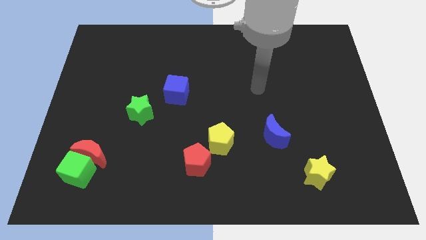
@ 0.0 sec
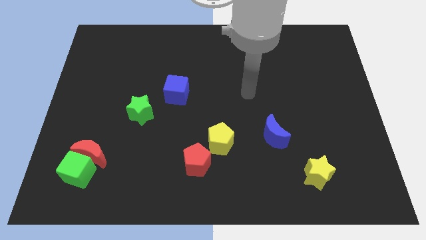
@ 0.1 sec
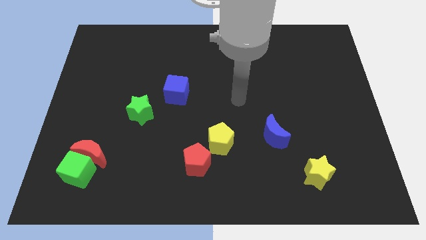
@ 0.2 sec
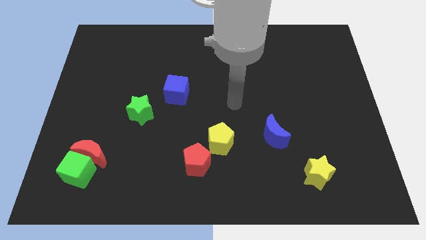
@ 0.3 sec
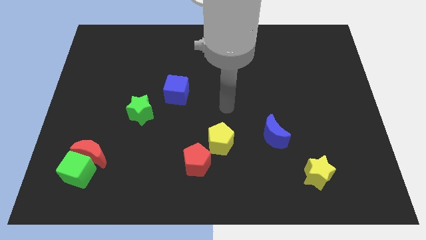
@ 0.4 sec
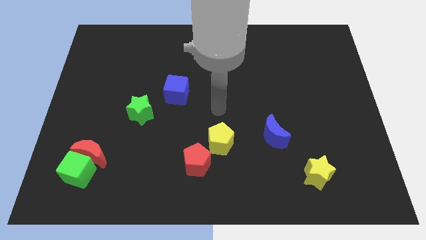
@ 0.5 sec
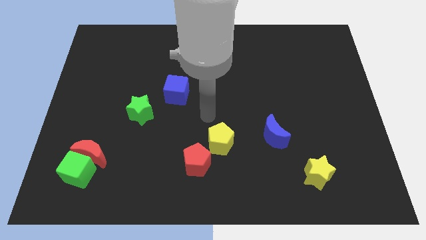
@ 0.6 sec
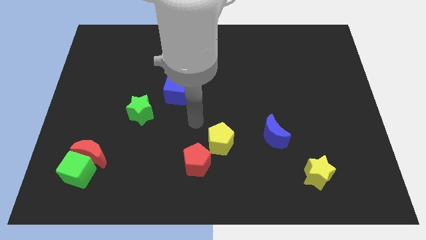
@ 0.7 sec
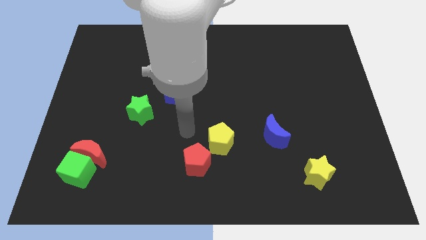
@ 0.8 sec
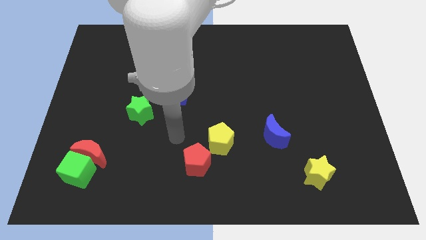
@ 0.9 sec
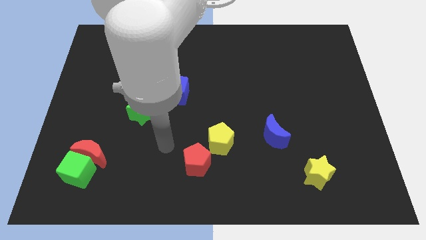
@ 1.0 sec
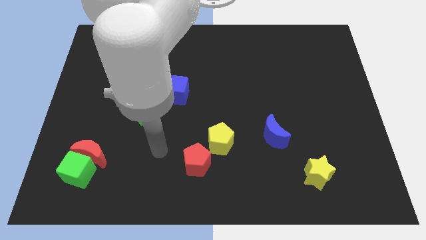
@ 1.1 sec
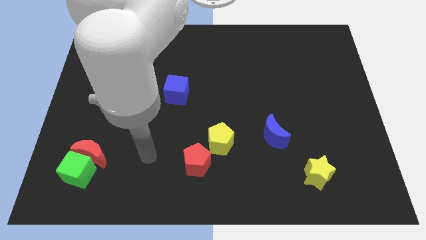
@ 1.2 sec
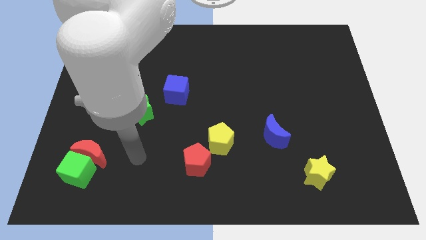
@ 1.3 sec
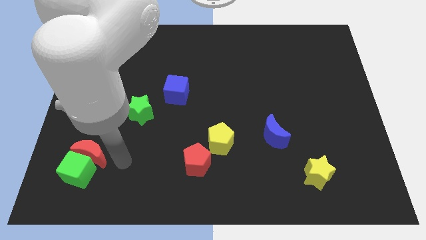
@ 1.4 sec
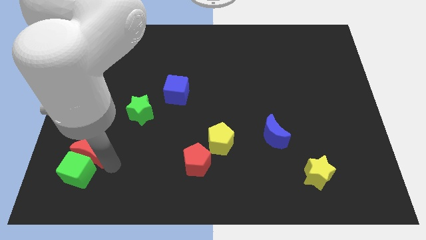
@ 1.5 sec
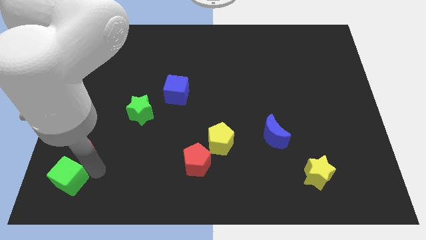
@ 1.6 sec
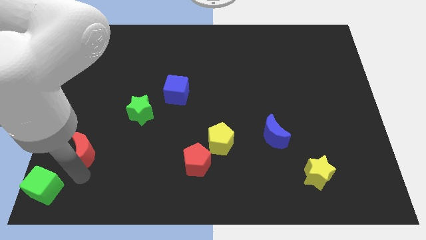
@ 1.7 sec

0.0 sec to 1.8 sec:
move the red moon away from the green cube

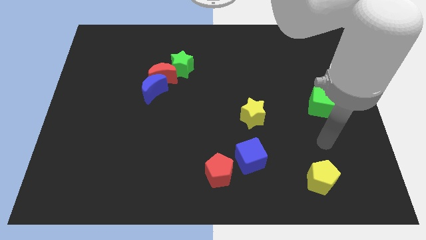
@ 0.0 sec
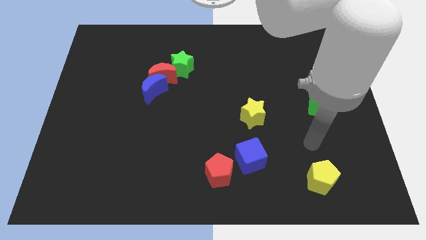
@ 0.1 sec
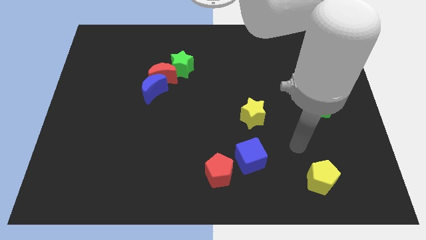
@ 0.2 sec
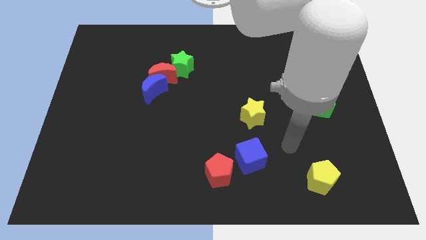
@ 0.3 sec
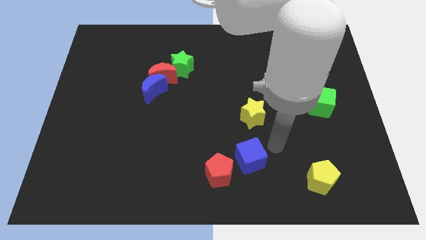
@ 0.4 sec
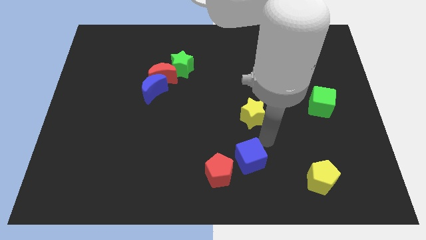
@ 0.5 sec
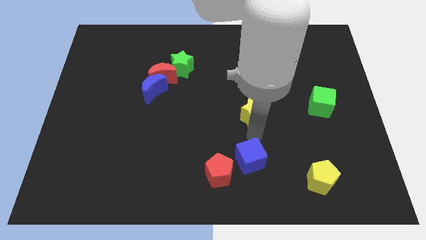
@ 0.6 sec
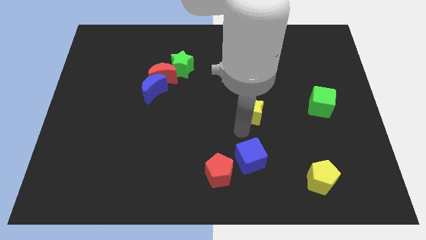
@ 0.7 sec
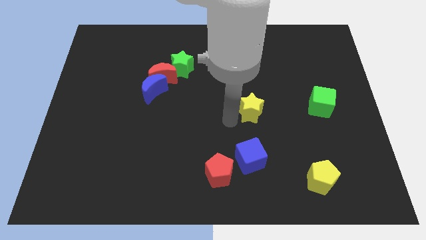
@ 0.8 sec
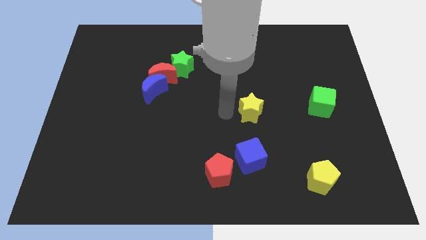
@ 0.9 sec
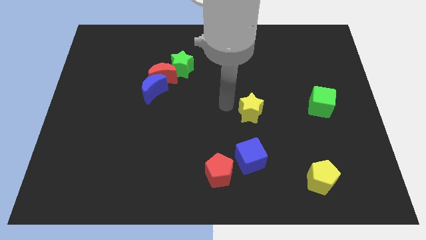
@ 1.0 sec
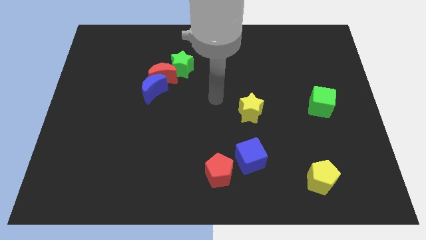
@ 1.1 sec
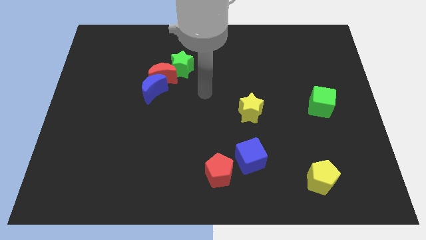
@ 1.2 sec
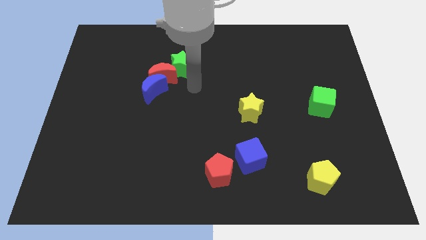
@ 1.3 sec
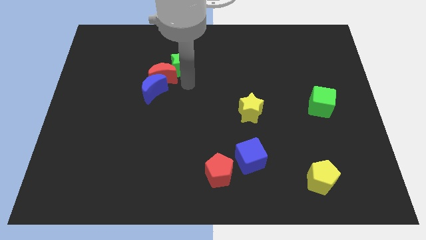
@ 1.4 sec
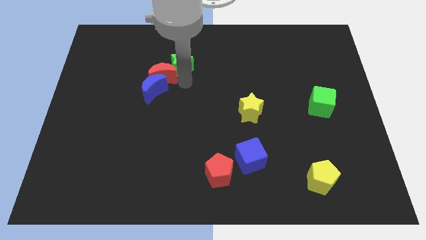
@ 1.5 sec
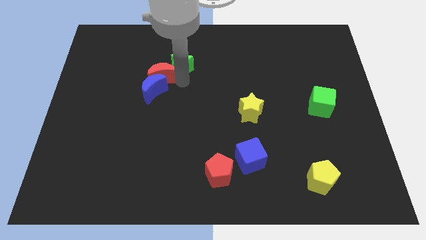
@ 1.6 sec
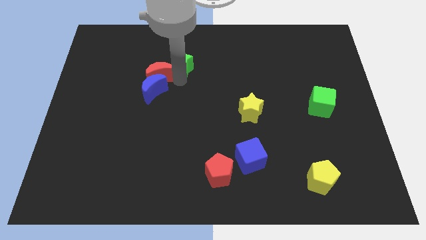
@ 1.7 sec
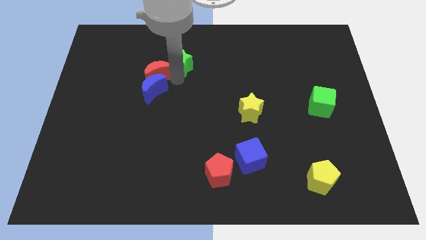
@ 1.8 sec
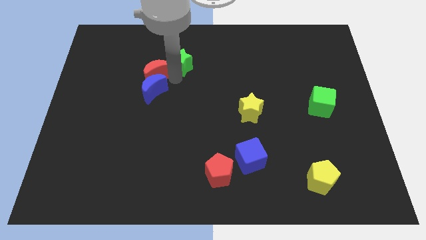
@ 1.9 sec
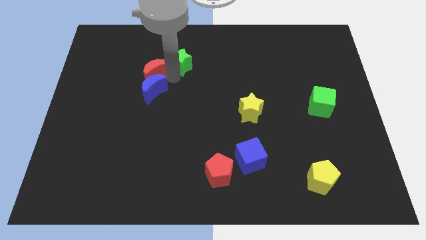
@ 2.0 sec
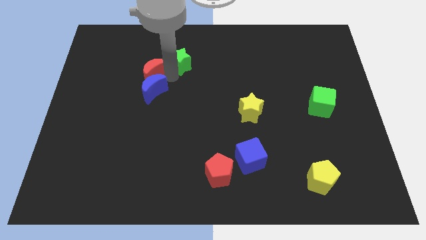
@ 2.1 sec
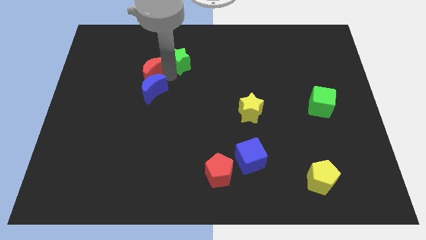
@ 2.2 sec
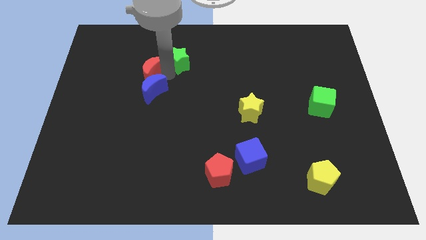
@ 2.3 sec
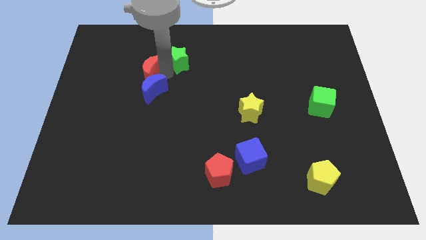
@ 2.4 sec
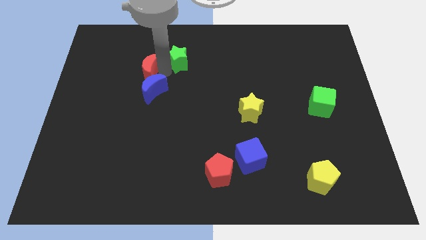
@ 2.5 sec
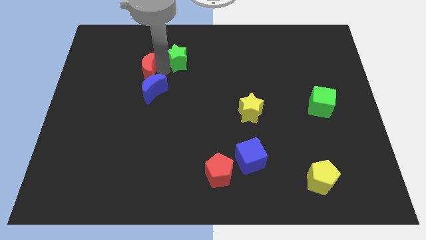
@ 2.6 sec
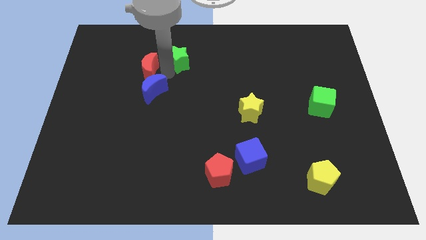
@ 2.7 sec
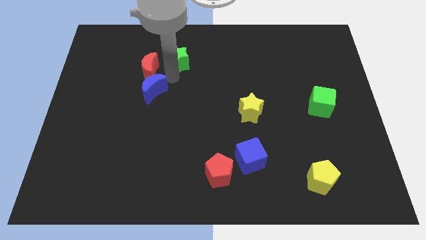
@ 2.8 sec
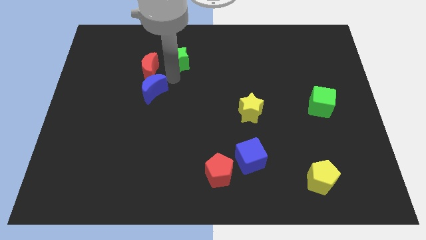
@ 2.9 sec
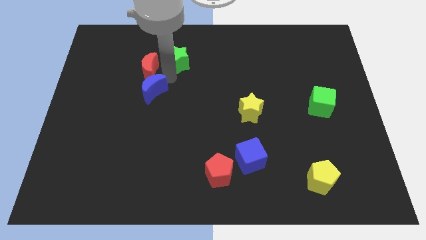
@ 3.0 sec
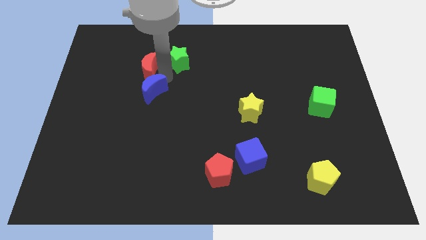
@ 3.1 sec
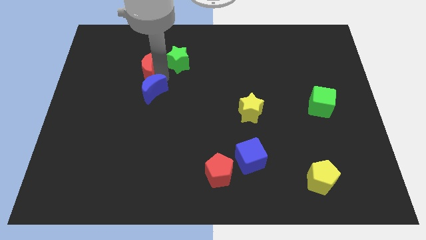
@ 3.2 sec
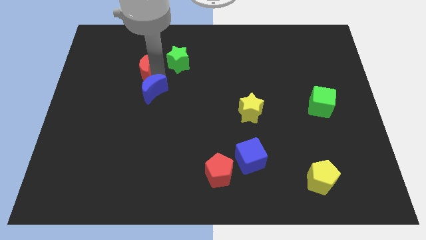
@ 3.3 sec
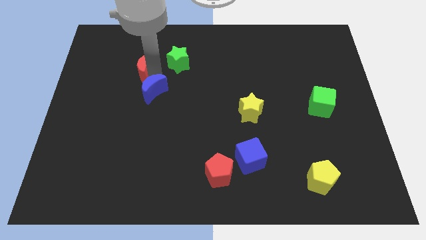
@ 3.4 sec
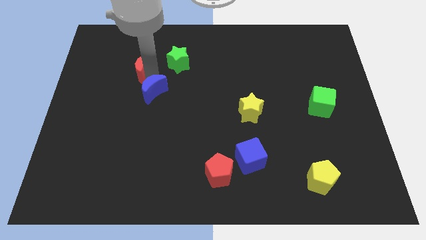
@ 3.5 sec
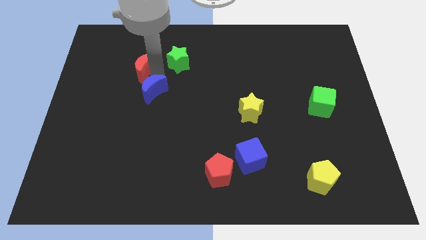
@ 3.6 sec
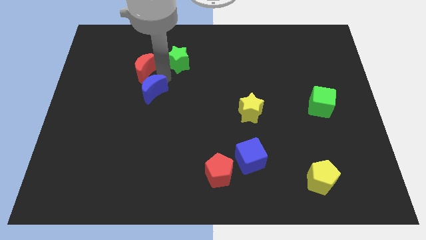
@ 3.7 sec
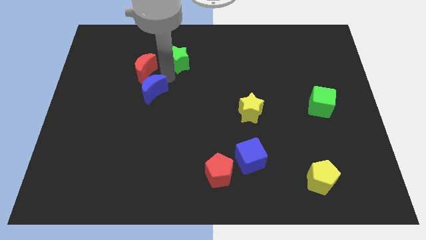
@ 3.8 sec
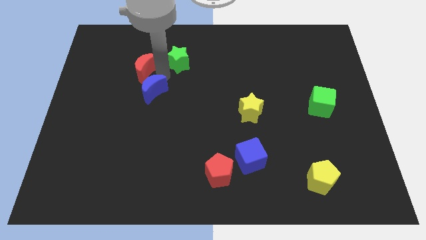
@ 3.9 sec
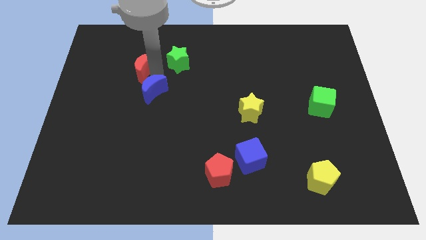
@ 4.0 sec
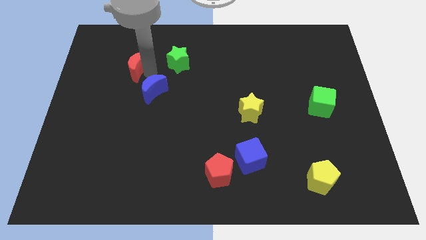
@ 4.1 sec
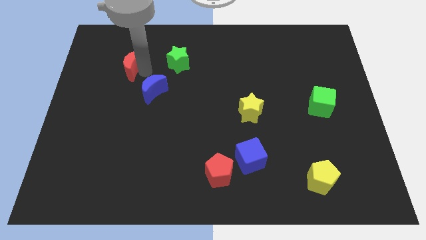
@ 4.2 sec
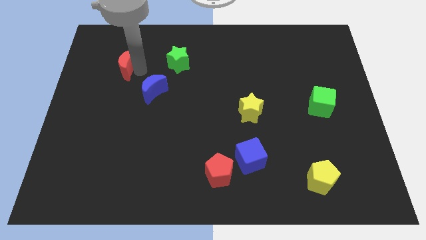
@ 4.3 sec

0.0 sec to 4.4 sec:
move the red moon away from the blue moon and green star

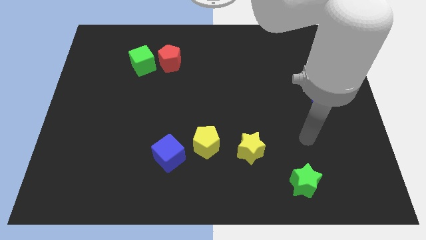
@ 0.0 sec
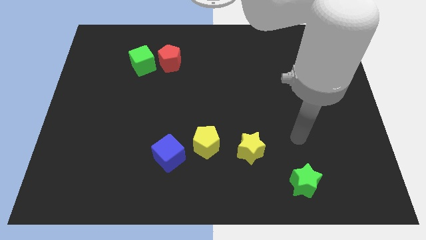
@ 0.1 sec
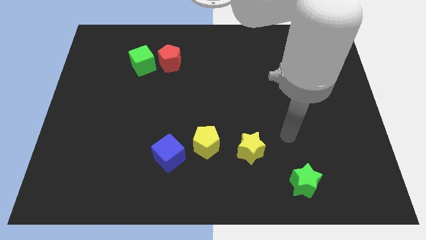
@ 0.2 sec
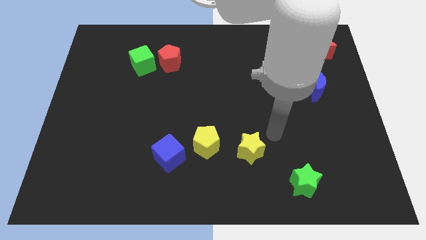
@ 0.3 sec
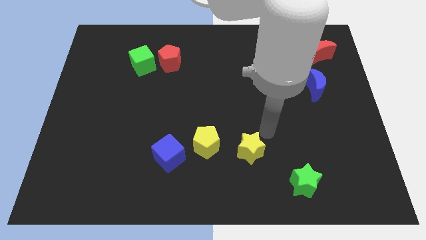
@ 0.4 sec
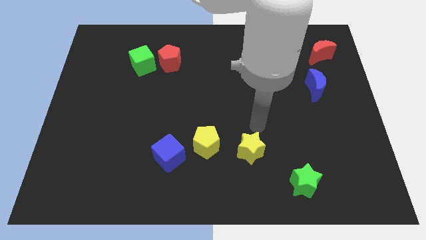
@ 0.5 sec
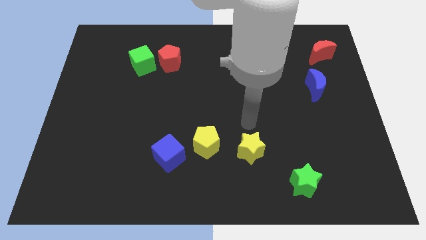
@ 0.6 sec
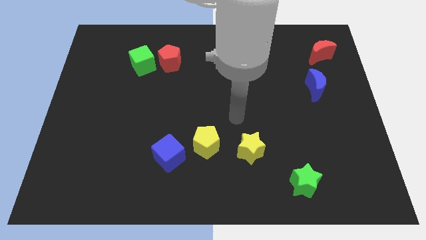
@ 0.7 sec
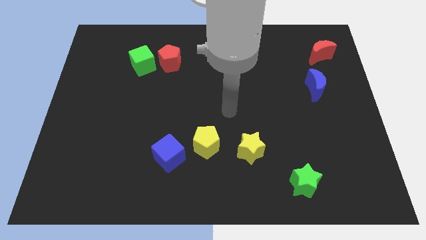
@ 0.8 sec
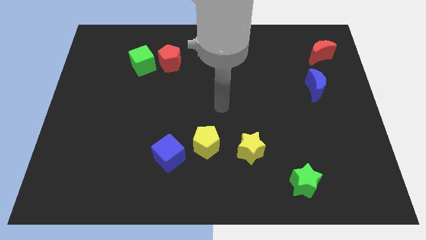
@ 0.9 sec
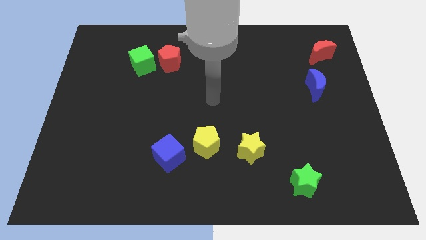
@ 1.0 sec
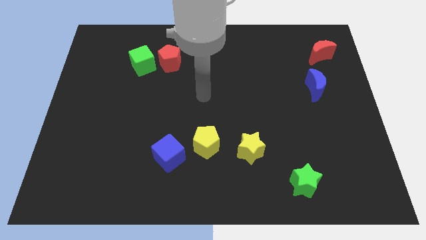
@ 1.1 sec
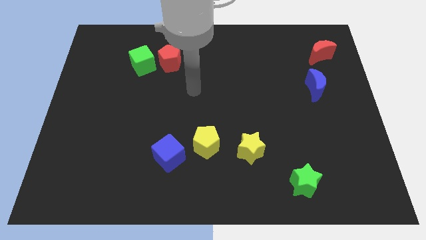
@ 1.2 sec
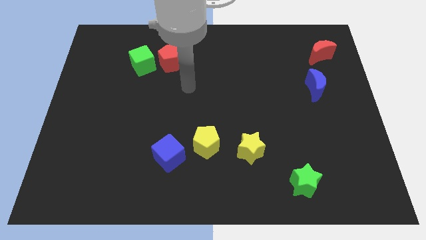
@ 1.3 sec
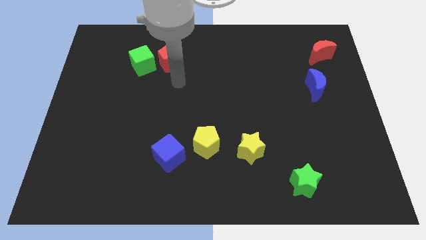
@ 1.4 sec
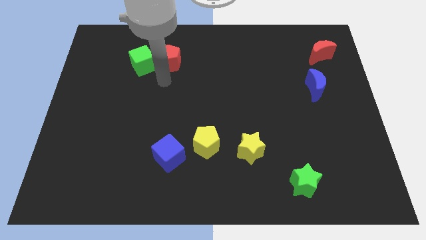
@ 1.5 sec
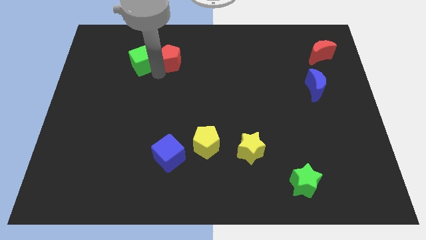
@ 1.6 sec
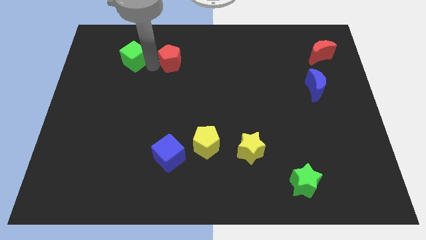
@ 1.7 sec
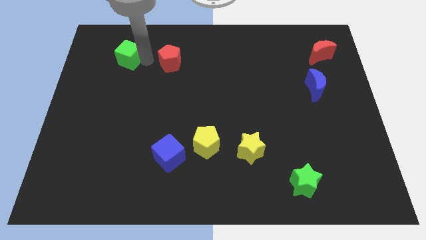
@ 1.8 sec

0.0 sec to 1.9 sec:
pull the red pentagon apart from the green cube

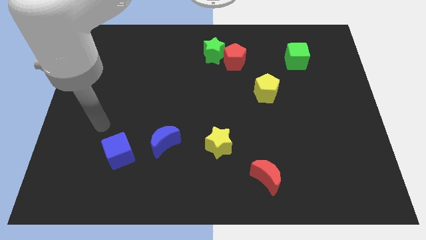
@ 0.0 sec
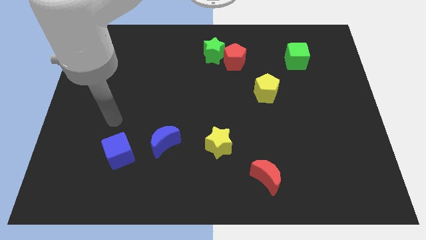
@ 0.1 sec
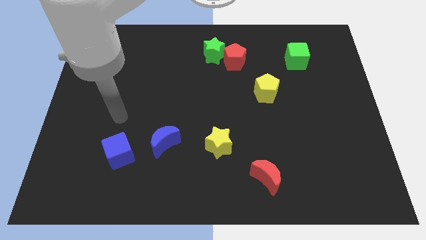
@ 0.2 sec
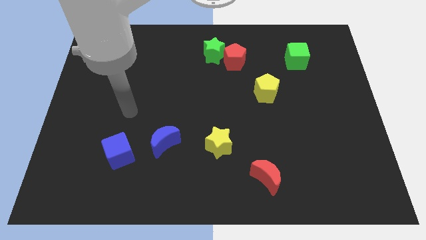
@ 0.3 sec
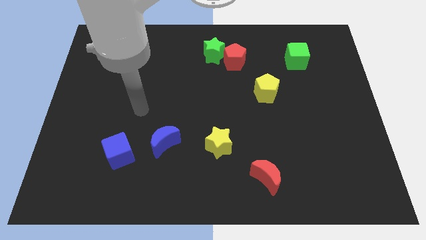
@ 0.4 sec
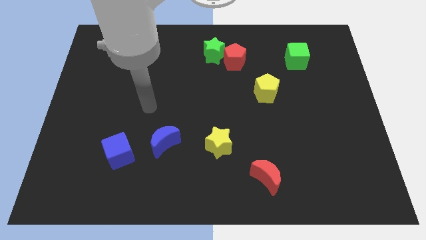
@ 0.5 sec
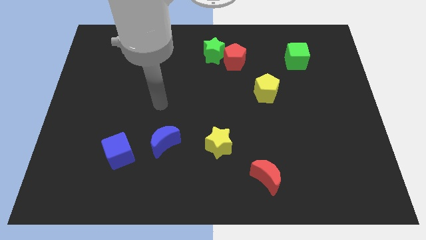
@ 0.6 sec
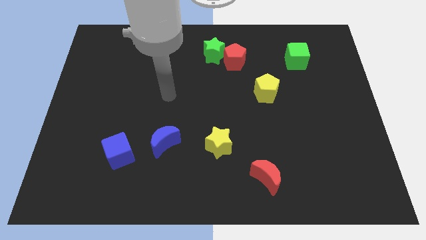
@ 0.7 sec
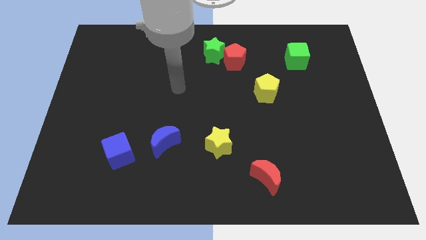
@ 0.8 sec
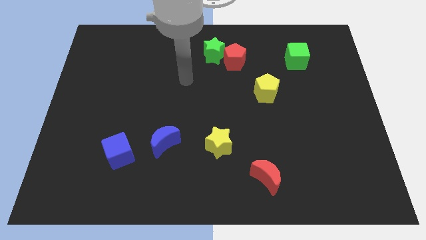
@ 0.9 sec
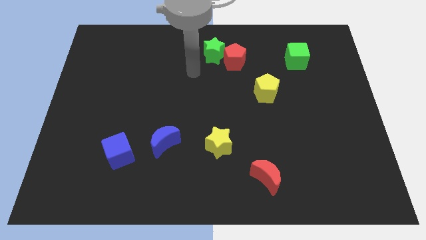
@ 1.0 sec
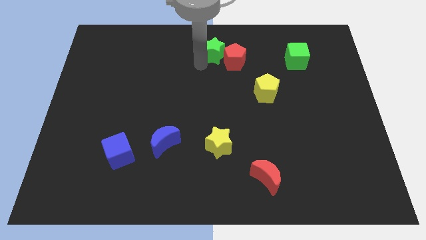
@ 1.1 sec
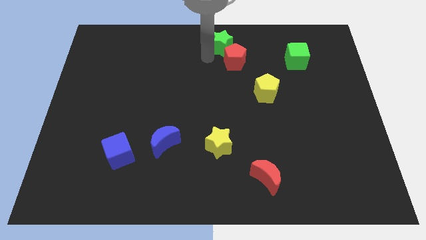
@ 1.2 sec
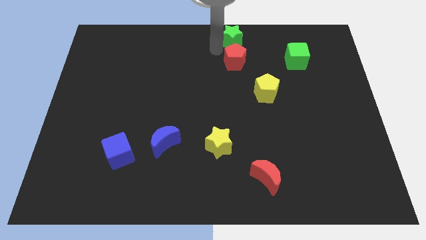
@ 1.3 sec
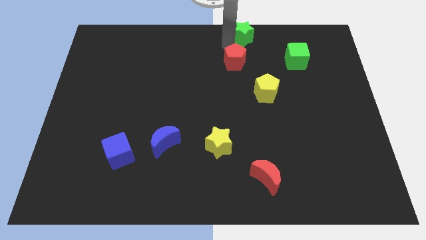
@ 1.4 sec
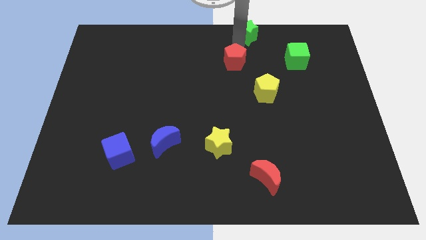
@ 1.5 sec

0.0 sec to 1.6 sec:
separate the red pentagon from the green star
